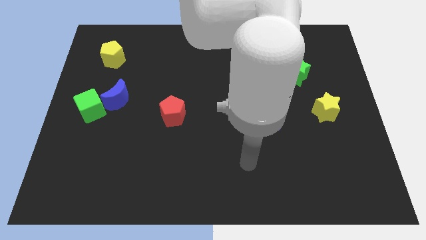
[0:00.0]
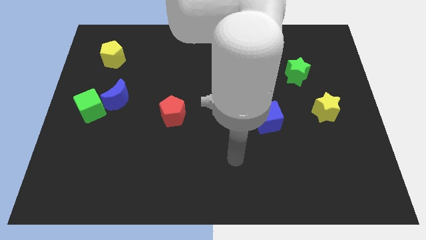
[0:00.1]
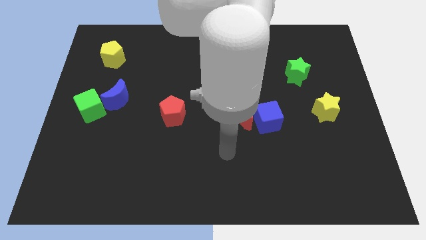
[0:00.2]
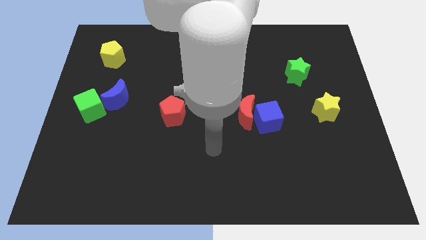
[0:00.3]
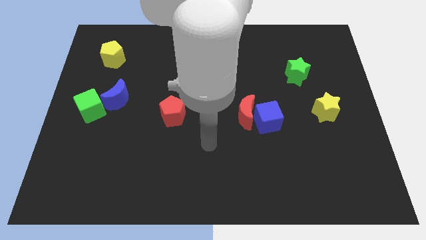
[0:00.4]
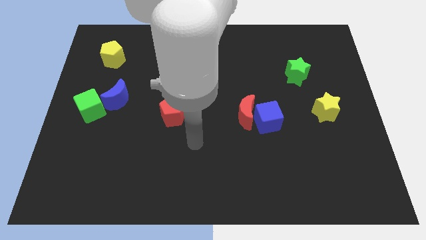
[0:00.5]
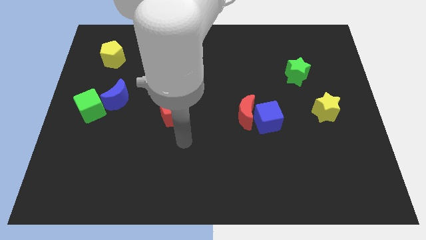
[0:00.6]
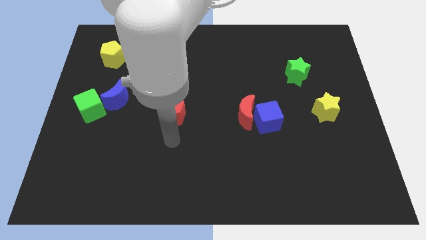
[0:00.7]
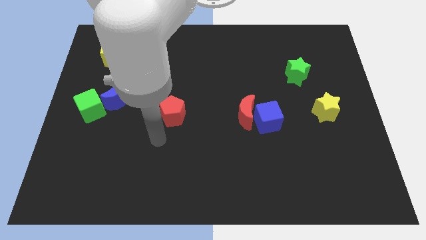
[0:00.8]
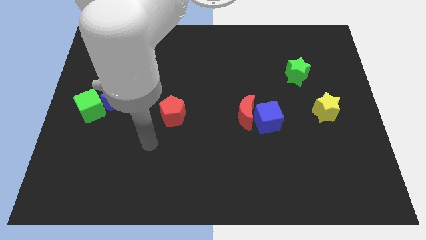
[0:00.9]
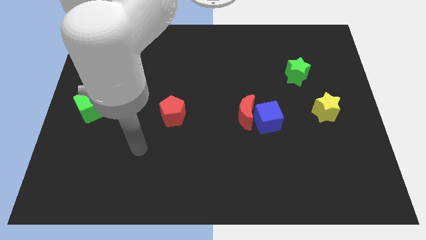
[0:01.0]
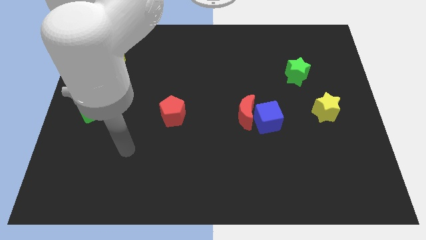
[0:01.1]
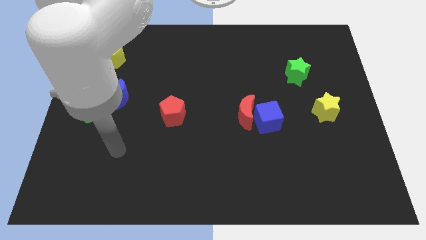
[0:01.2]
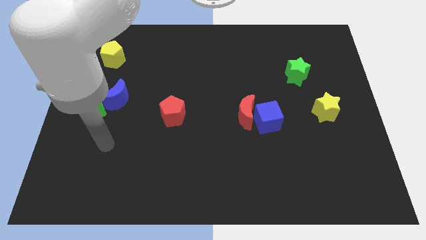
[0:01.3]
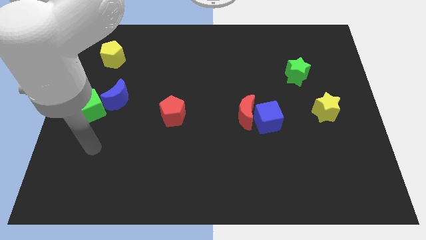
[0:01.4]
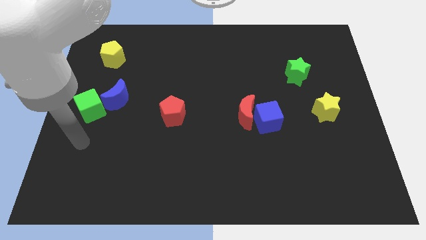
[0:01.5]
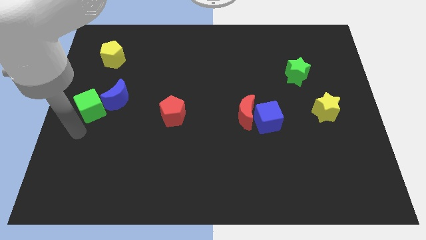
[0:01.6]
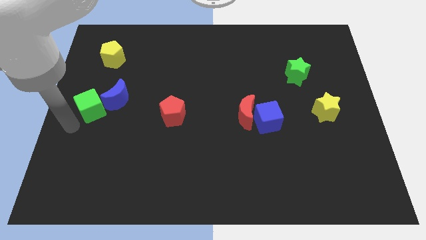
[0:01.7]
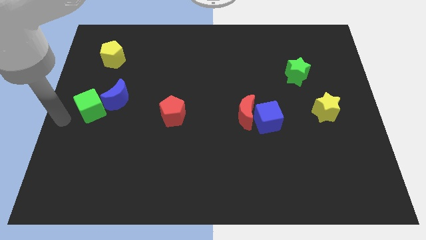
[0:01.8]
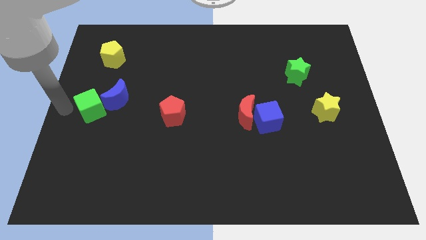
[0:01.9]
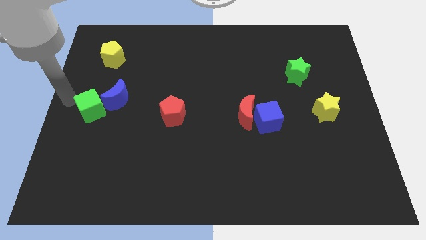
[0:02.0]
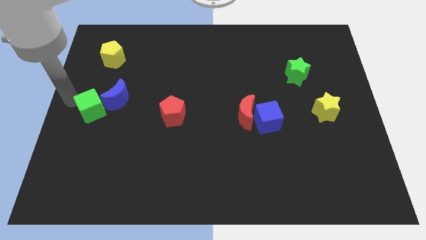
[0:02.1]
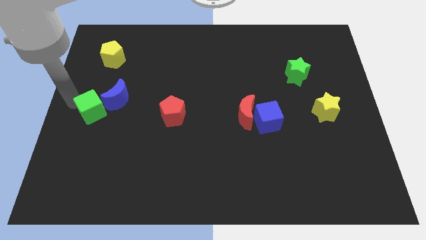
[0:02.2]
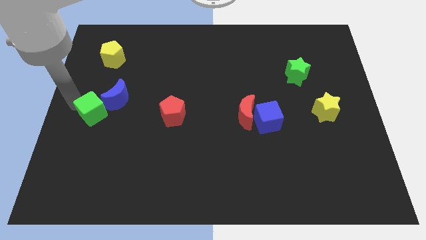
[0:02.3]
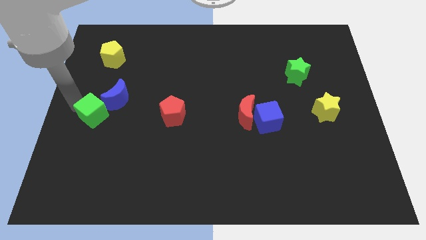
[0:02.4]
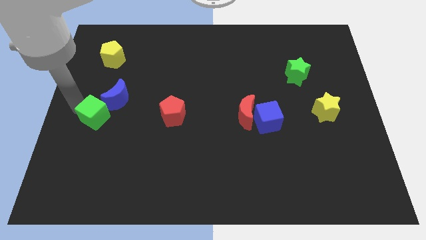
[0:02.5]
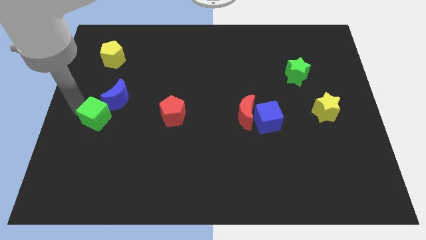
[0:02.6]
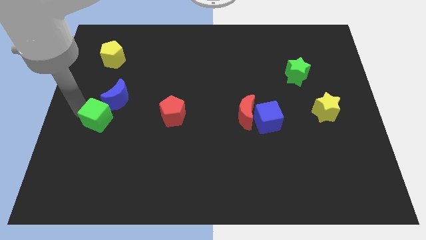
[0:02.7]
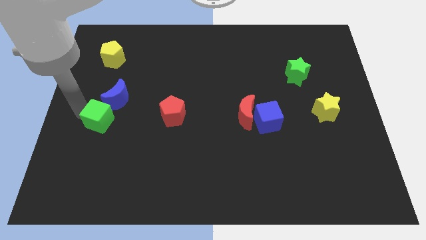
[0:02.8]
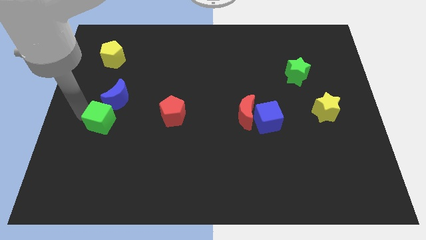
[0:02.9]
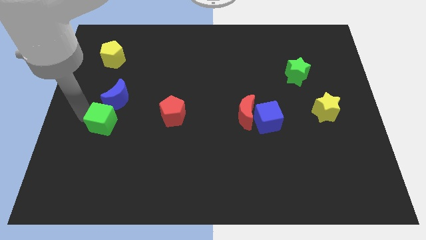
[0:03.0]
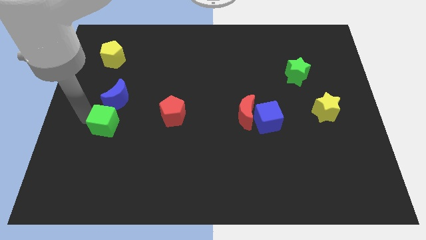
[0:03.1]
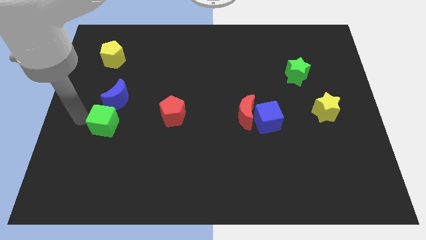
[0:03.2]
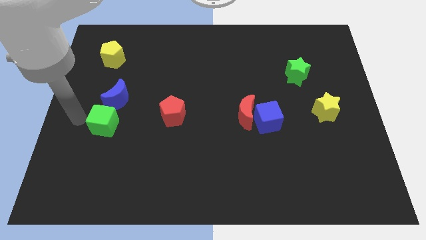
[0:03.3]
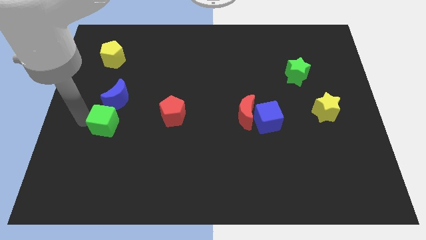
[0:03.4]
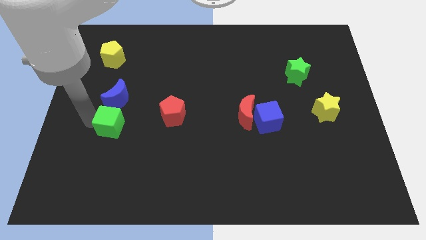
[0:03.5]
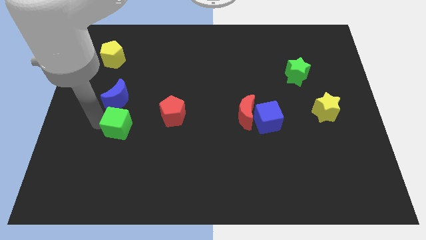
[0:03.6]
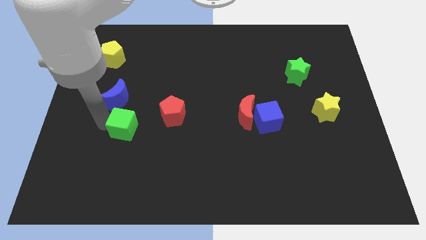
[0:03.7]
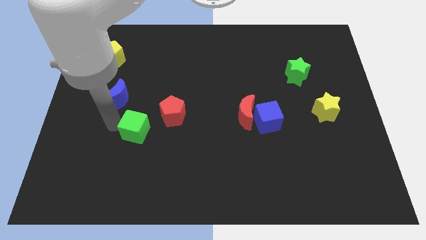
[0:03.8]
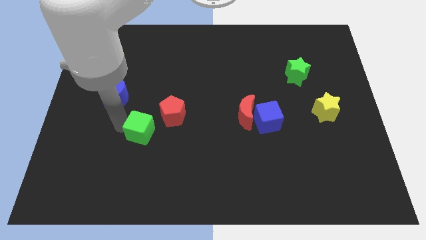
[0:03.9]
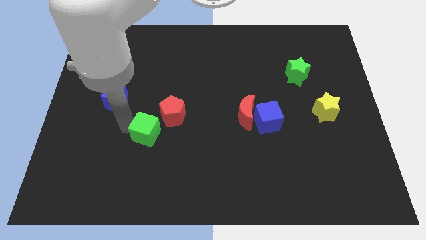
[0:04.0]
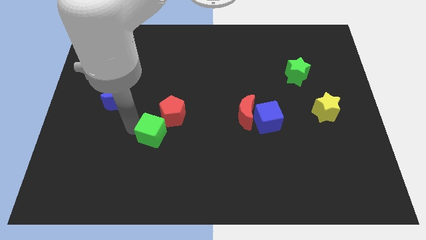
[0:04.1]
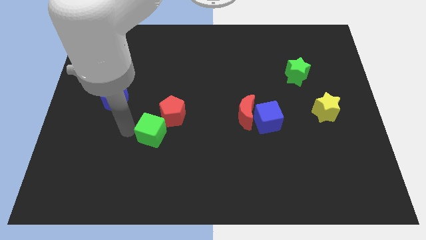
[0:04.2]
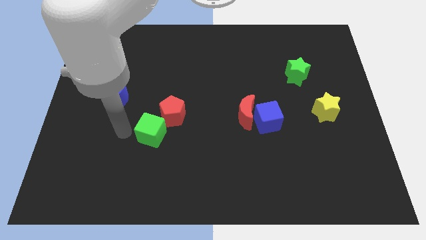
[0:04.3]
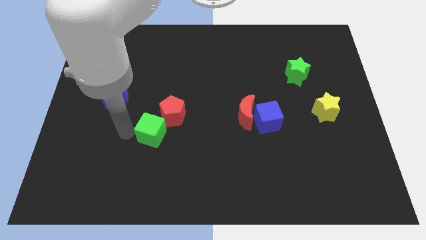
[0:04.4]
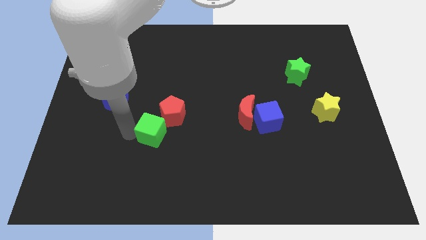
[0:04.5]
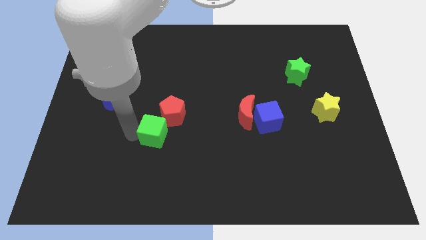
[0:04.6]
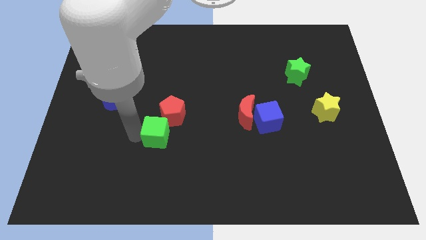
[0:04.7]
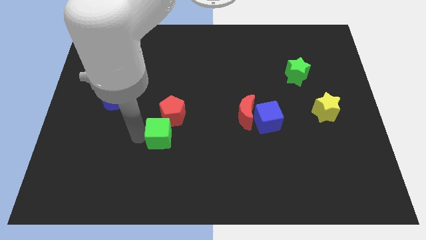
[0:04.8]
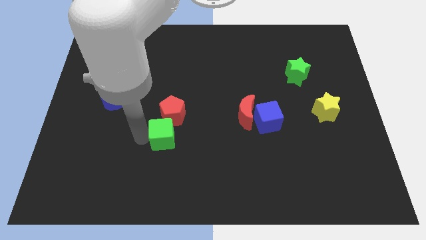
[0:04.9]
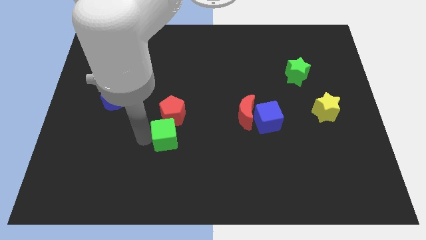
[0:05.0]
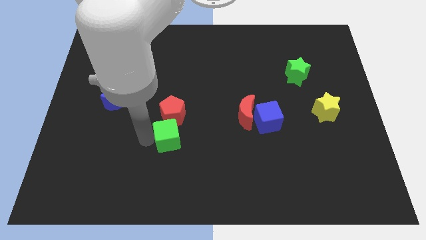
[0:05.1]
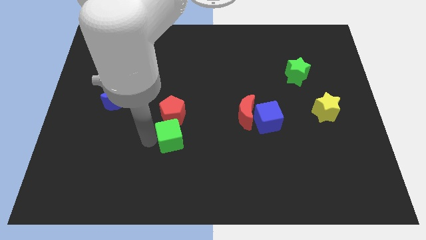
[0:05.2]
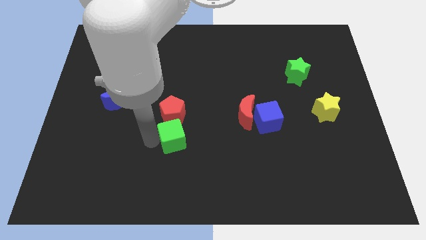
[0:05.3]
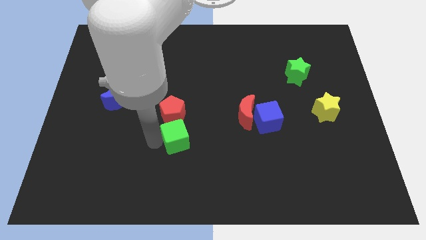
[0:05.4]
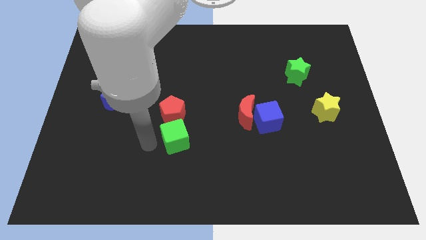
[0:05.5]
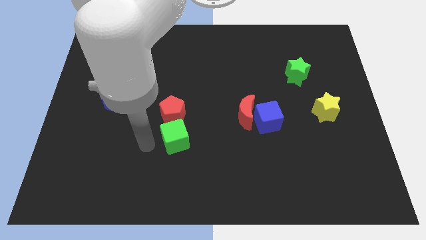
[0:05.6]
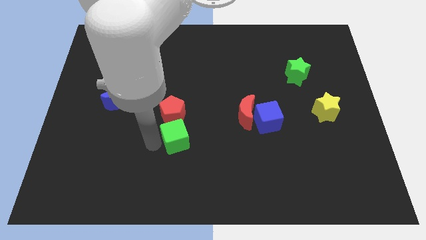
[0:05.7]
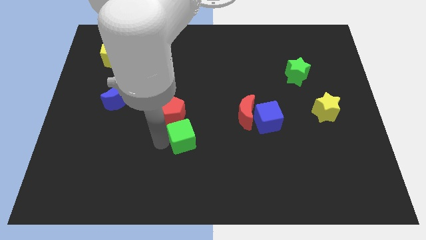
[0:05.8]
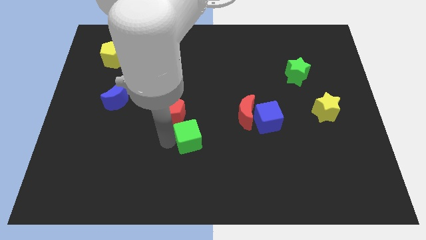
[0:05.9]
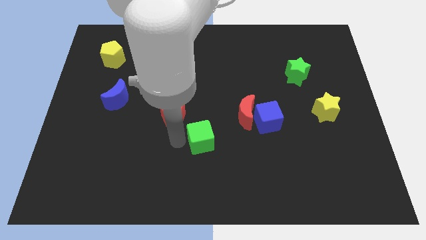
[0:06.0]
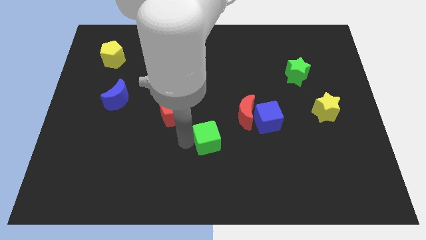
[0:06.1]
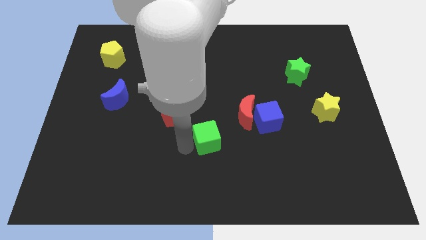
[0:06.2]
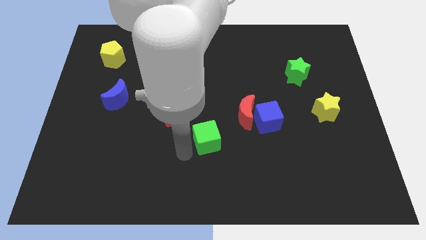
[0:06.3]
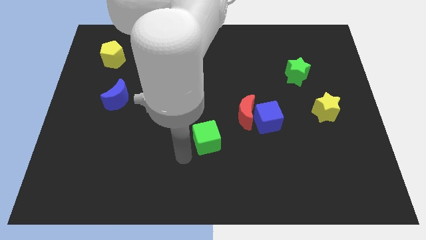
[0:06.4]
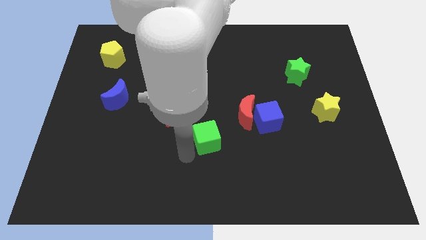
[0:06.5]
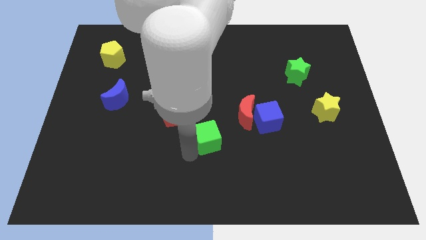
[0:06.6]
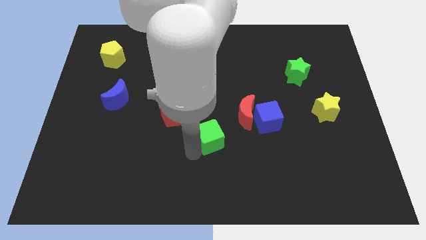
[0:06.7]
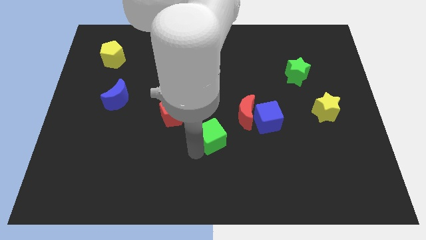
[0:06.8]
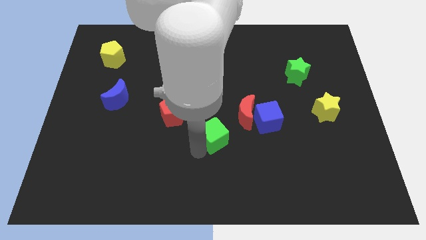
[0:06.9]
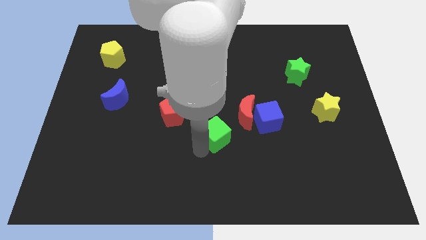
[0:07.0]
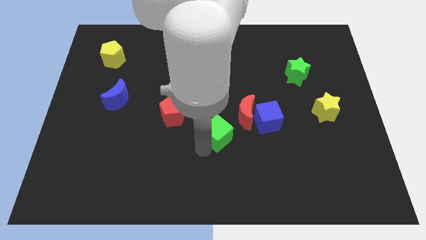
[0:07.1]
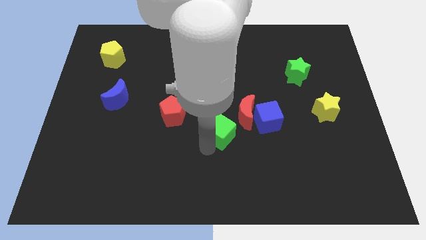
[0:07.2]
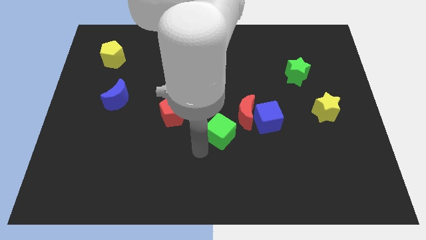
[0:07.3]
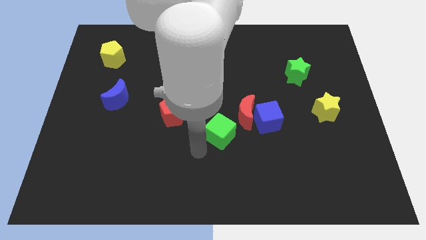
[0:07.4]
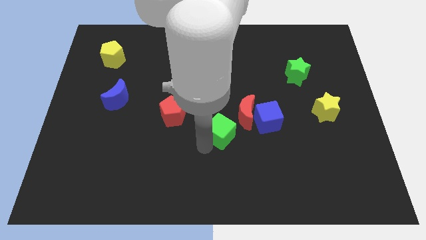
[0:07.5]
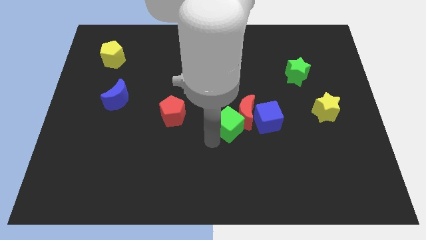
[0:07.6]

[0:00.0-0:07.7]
slide the green cube to the red moon

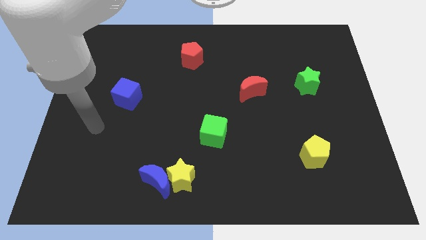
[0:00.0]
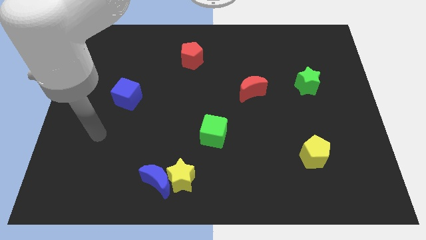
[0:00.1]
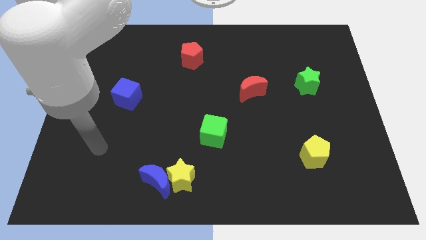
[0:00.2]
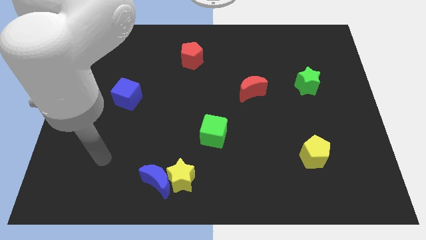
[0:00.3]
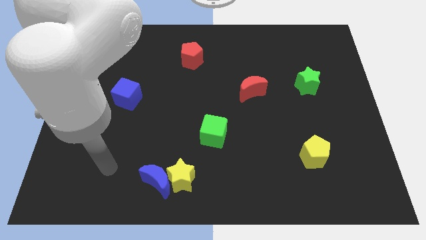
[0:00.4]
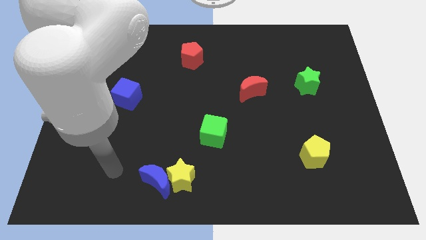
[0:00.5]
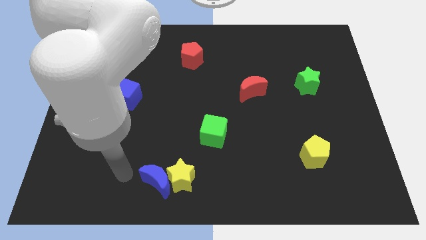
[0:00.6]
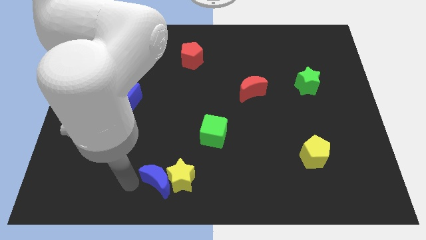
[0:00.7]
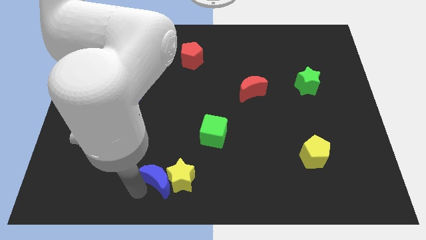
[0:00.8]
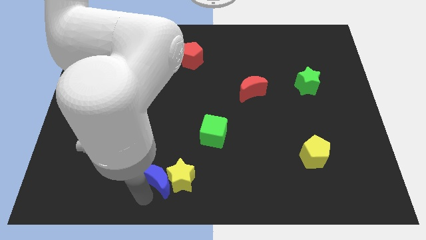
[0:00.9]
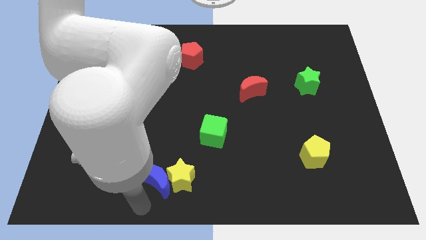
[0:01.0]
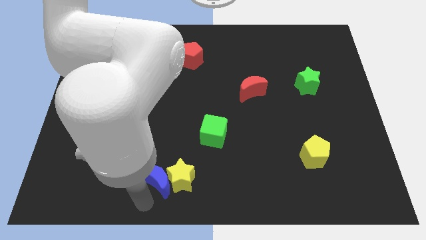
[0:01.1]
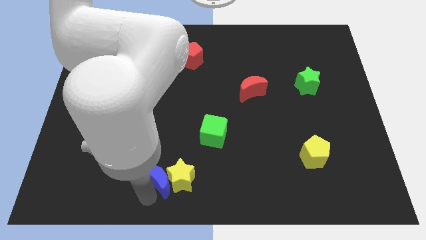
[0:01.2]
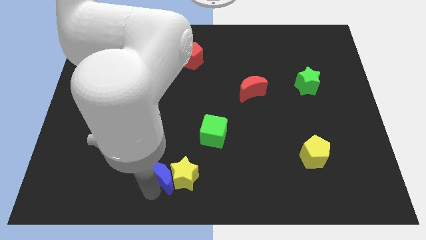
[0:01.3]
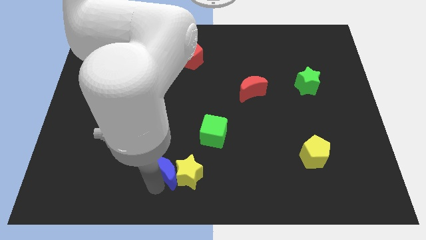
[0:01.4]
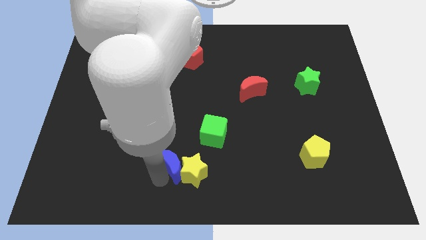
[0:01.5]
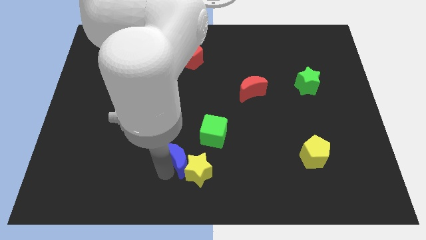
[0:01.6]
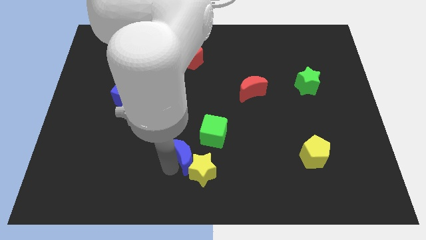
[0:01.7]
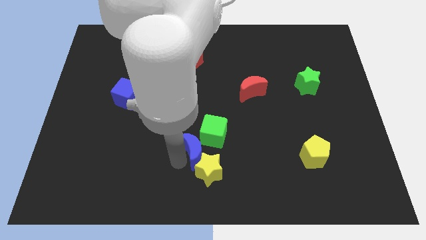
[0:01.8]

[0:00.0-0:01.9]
push the blue moon to the green cube
